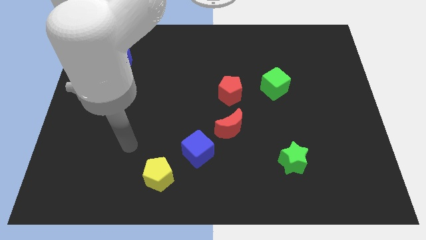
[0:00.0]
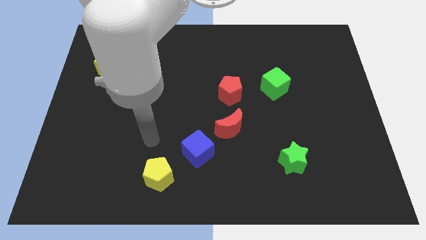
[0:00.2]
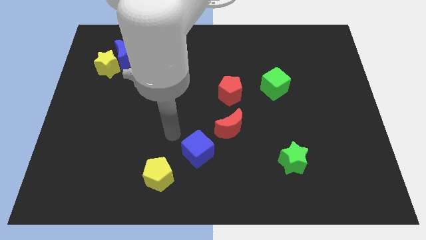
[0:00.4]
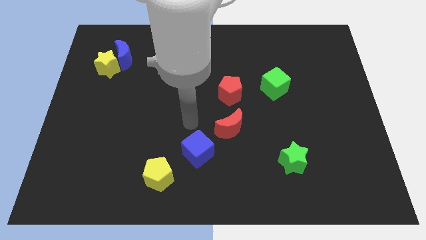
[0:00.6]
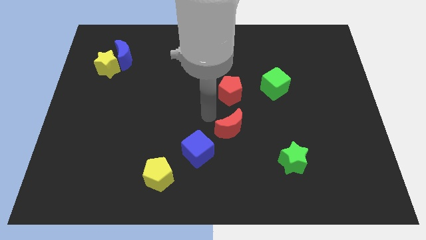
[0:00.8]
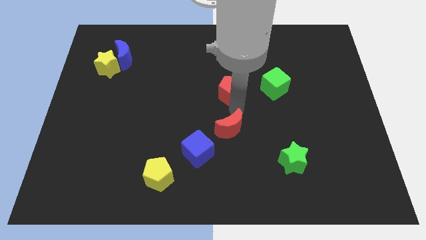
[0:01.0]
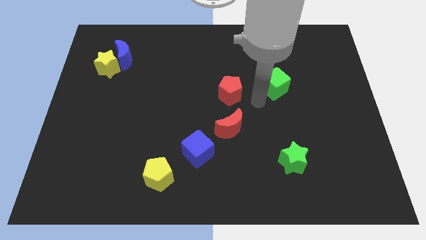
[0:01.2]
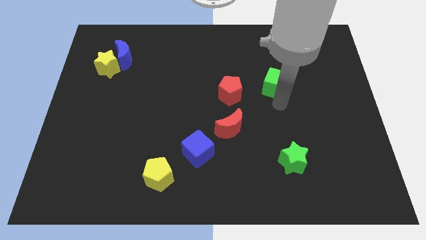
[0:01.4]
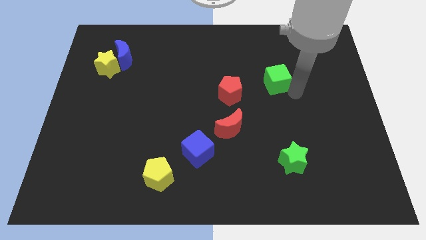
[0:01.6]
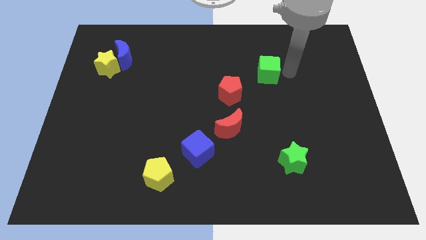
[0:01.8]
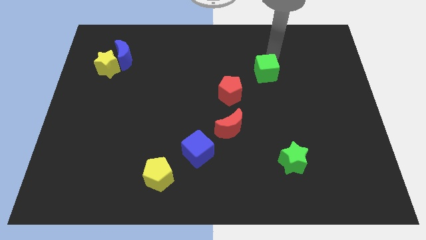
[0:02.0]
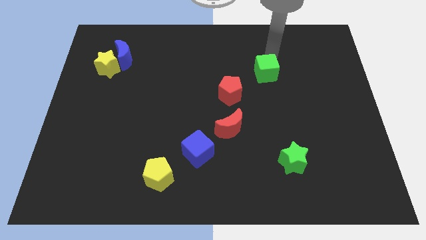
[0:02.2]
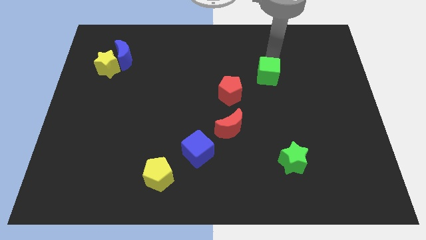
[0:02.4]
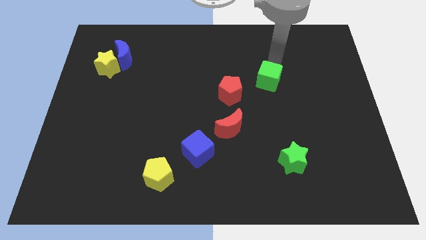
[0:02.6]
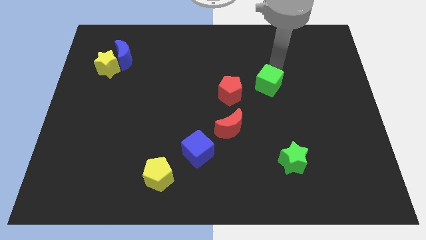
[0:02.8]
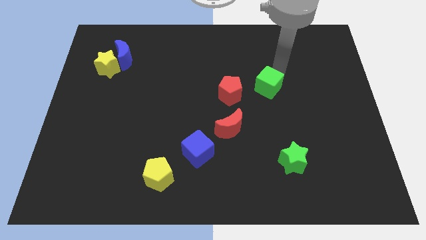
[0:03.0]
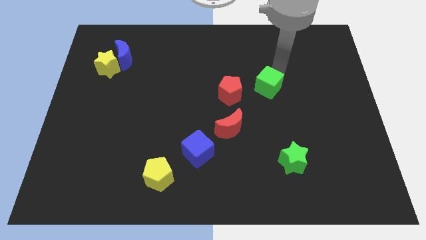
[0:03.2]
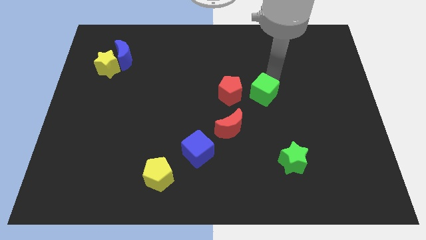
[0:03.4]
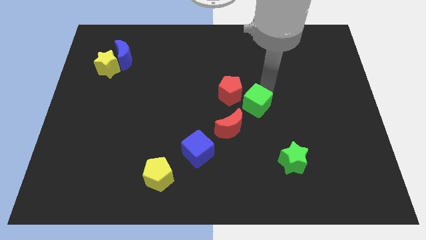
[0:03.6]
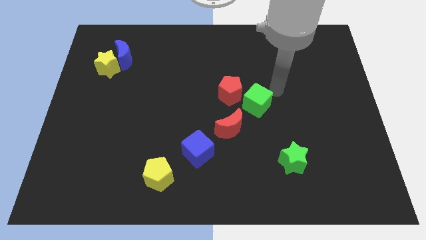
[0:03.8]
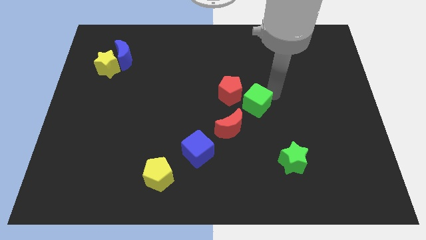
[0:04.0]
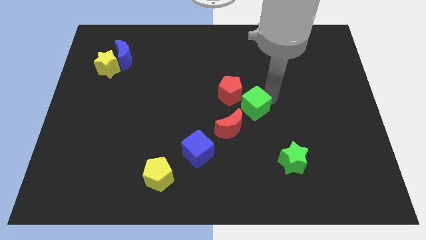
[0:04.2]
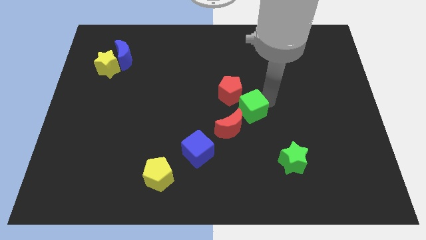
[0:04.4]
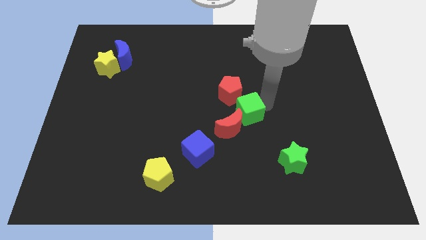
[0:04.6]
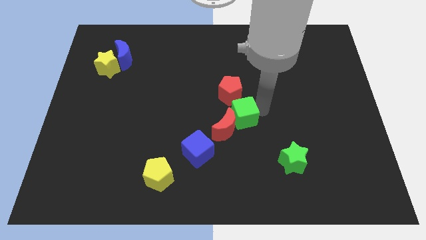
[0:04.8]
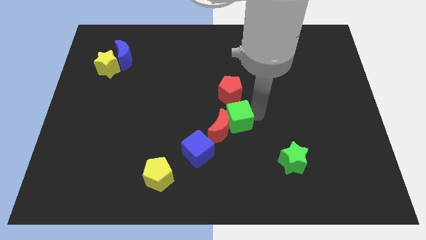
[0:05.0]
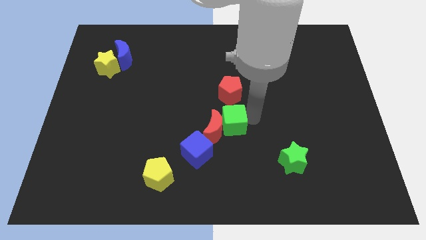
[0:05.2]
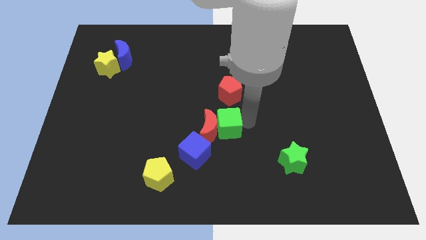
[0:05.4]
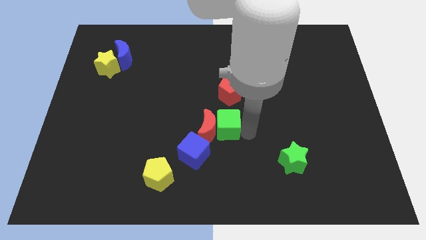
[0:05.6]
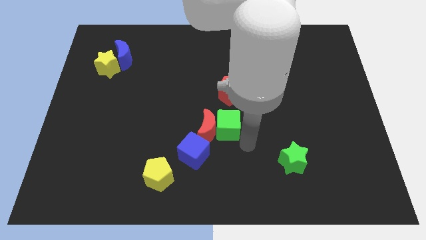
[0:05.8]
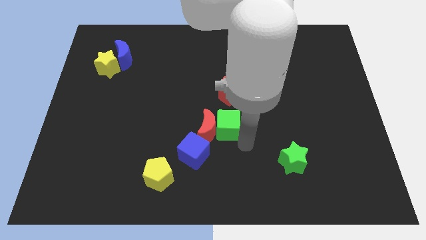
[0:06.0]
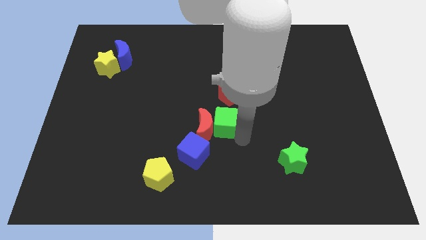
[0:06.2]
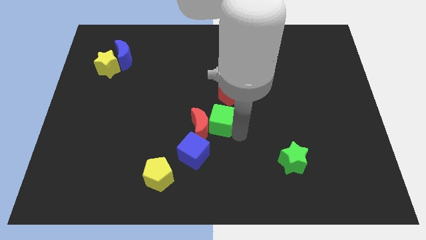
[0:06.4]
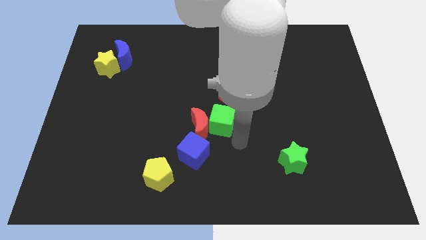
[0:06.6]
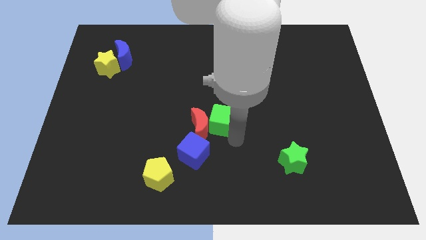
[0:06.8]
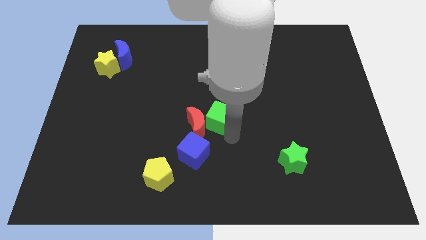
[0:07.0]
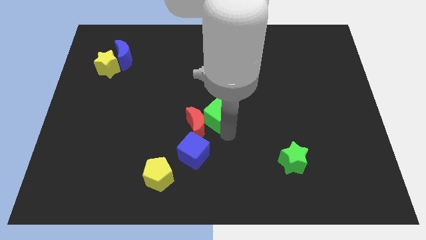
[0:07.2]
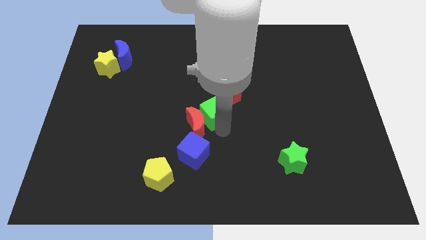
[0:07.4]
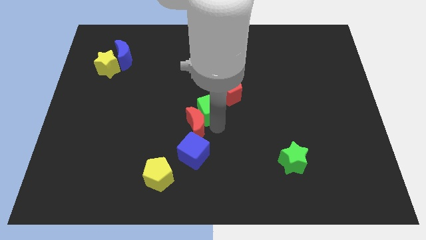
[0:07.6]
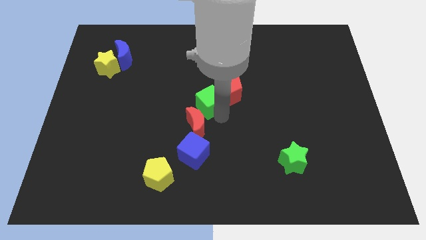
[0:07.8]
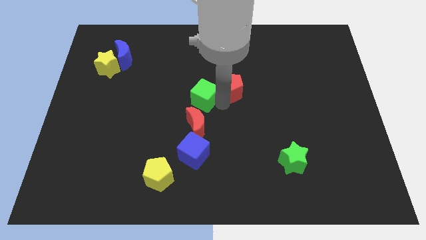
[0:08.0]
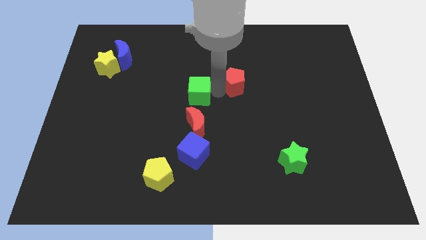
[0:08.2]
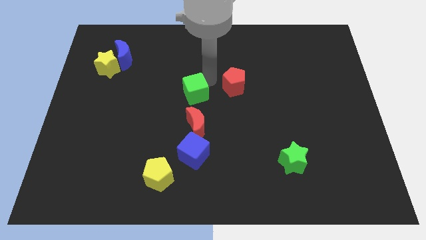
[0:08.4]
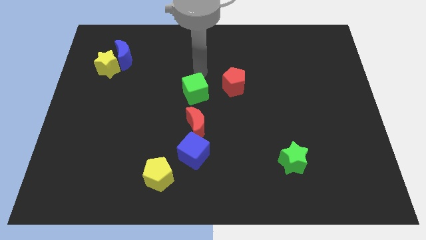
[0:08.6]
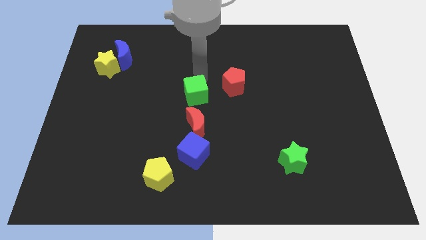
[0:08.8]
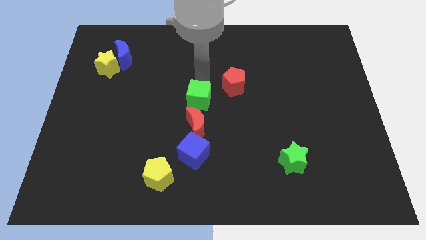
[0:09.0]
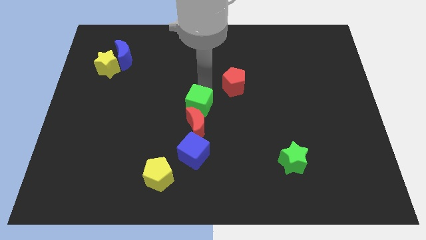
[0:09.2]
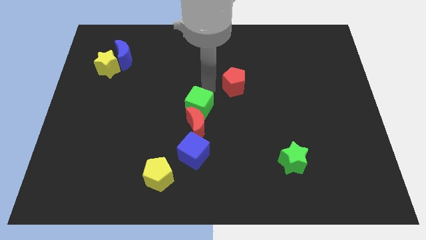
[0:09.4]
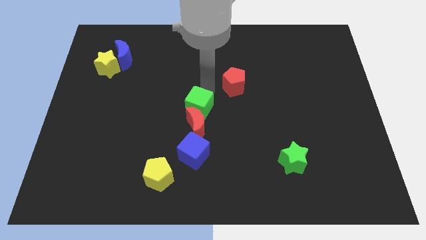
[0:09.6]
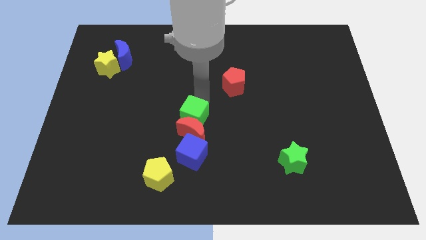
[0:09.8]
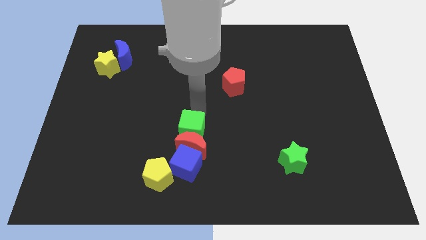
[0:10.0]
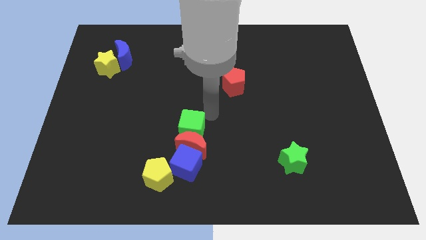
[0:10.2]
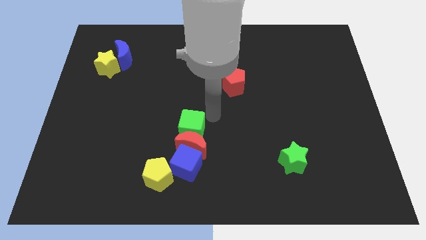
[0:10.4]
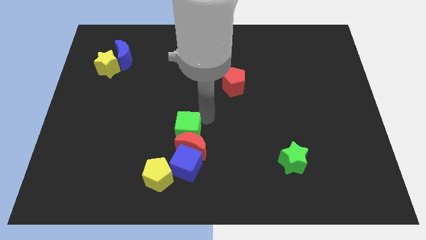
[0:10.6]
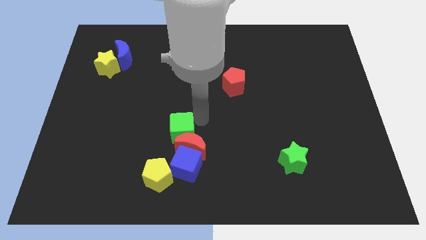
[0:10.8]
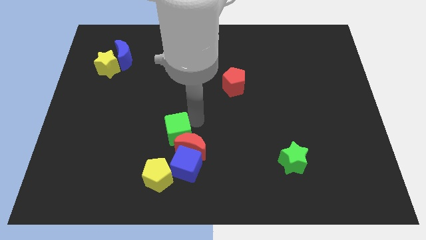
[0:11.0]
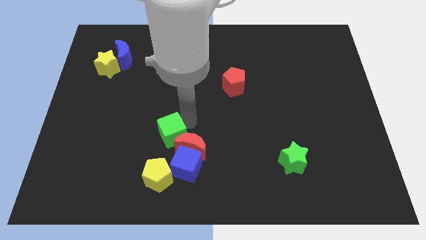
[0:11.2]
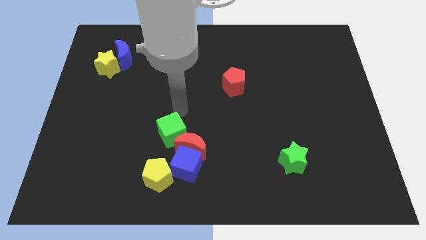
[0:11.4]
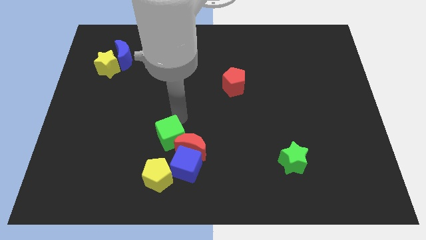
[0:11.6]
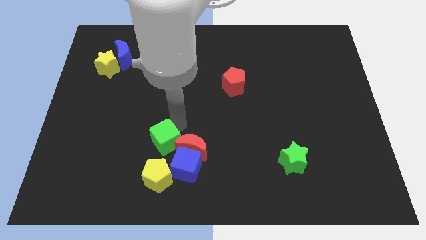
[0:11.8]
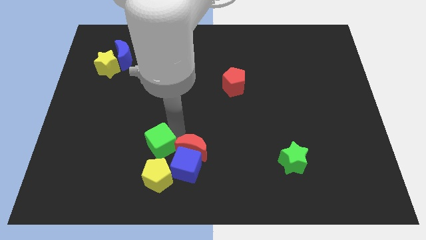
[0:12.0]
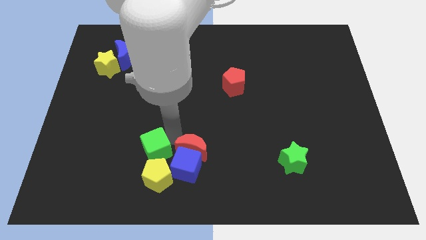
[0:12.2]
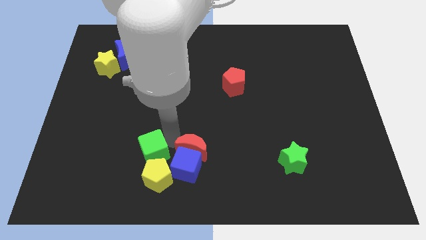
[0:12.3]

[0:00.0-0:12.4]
push the green cube close to the yellow pentagon

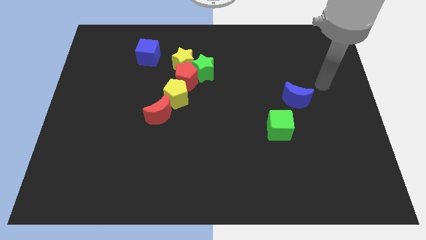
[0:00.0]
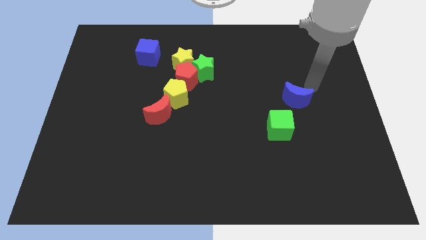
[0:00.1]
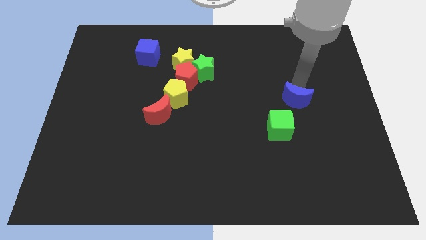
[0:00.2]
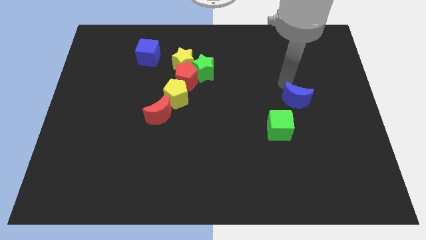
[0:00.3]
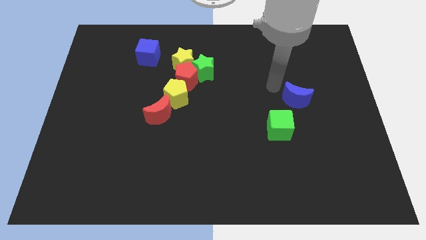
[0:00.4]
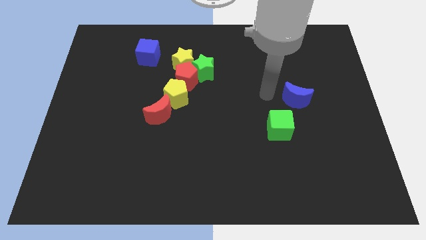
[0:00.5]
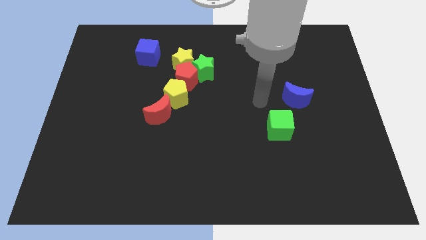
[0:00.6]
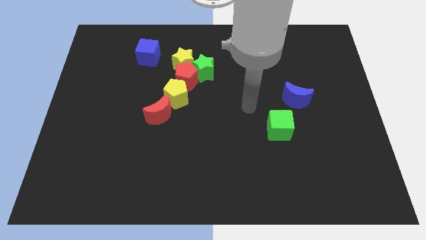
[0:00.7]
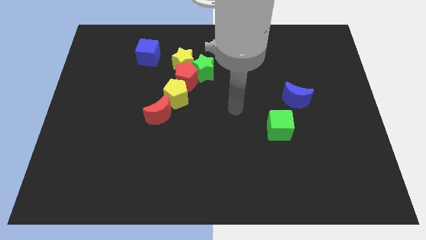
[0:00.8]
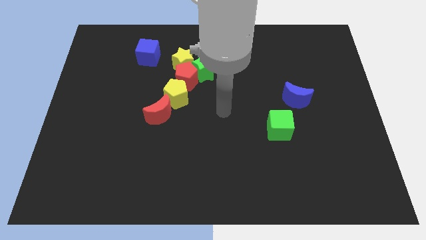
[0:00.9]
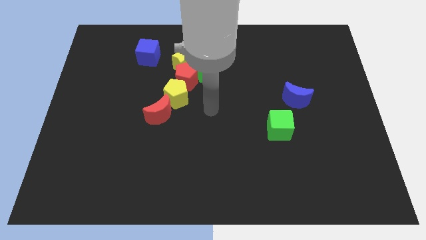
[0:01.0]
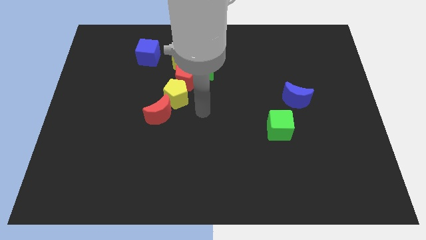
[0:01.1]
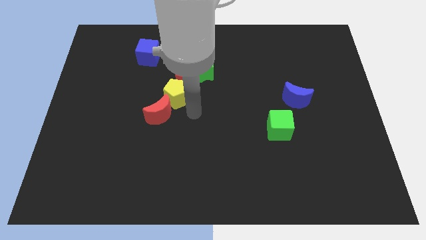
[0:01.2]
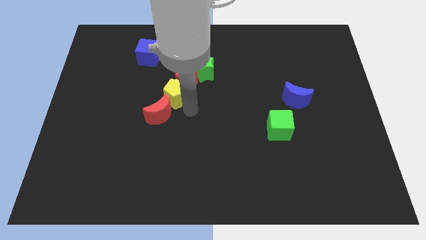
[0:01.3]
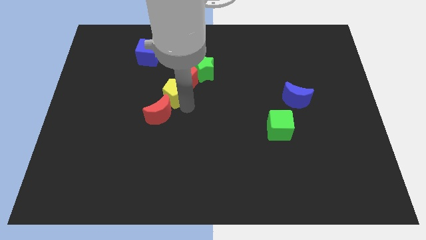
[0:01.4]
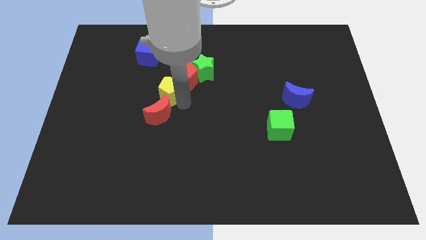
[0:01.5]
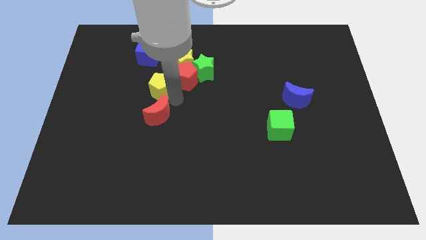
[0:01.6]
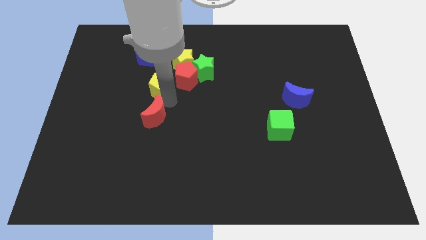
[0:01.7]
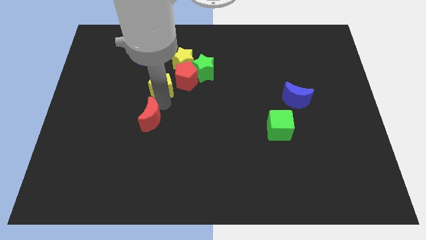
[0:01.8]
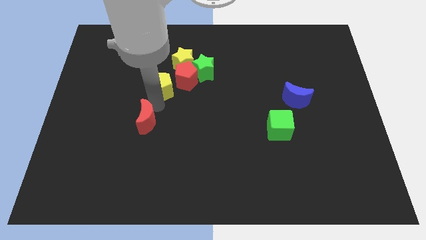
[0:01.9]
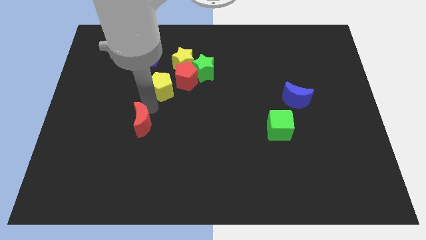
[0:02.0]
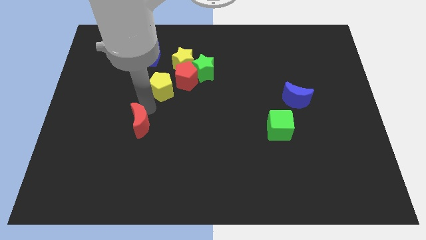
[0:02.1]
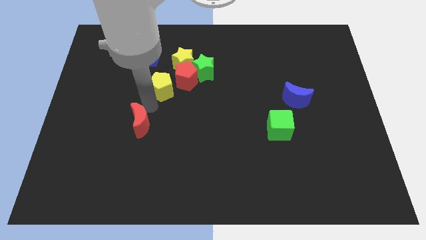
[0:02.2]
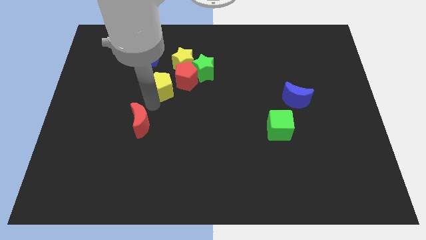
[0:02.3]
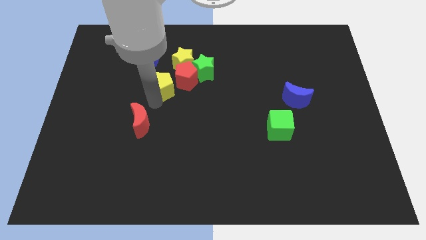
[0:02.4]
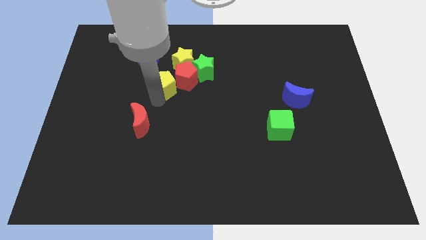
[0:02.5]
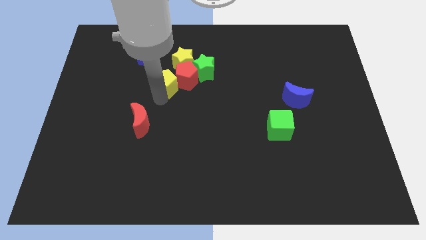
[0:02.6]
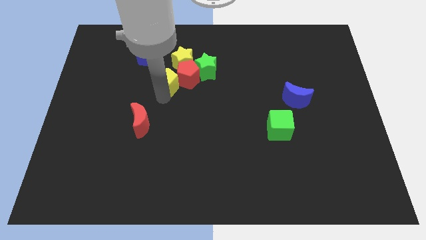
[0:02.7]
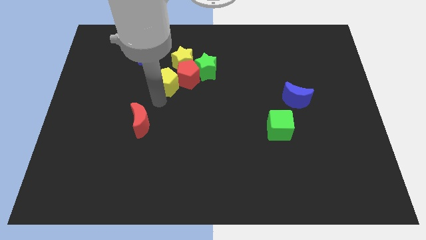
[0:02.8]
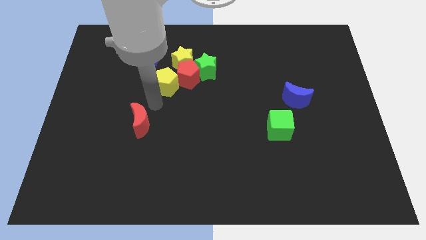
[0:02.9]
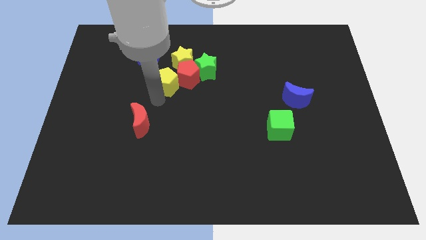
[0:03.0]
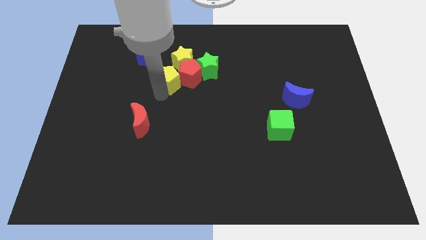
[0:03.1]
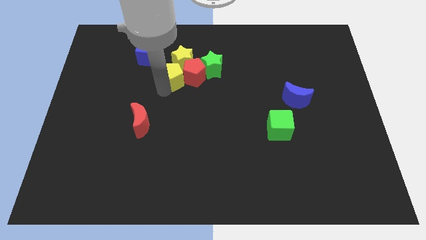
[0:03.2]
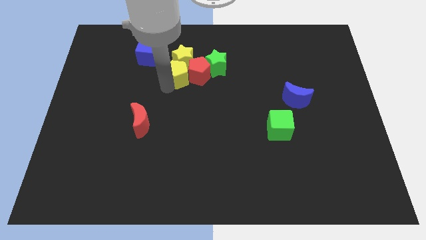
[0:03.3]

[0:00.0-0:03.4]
put the yellow pentagon to the yellow star
